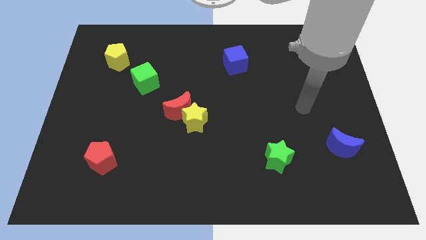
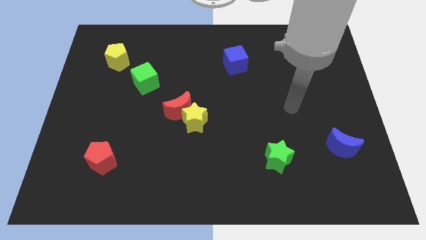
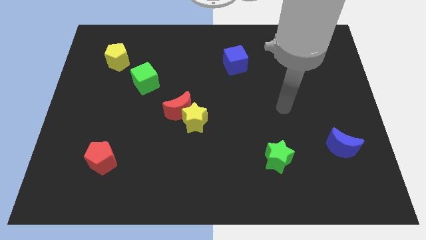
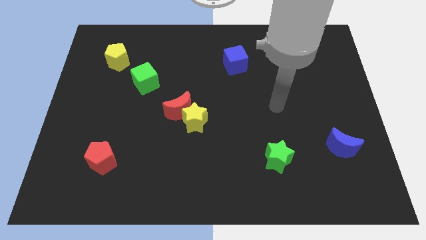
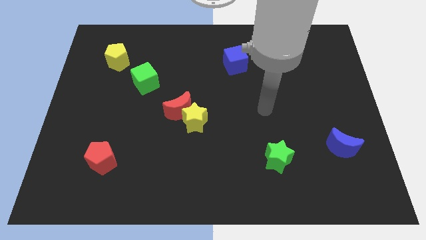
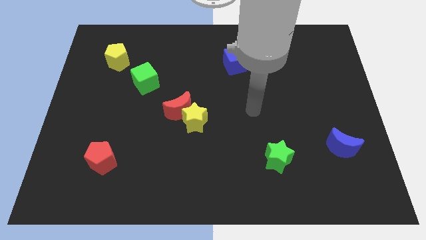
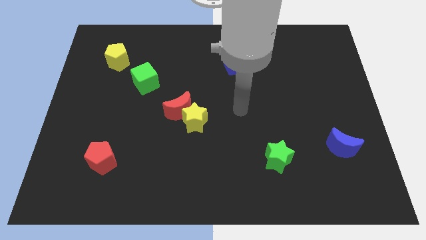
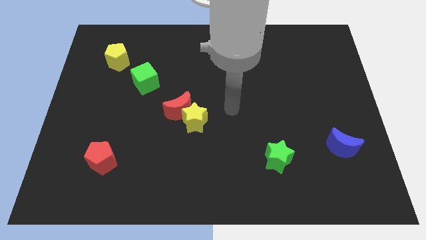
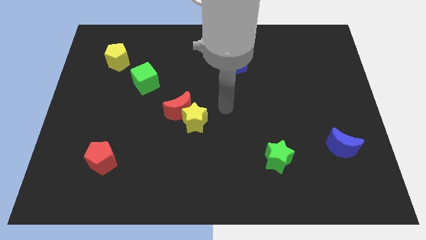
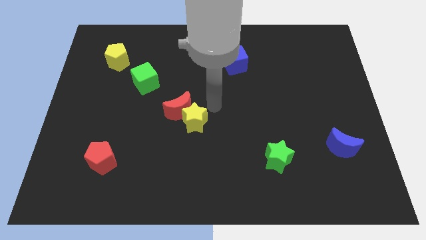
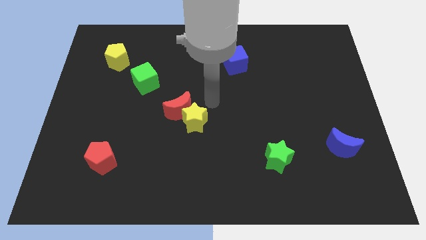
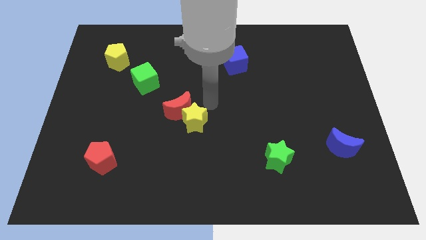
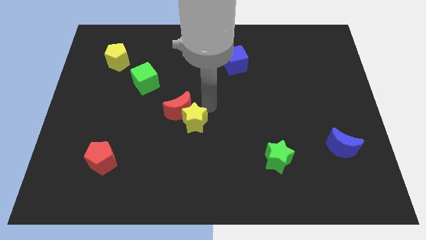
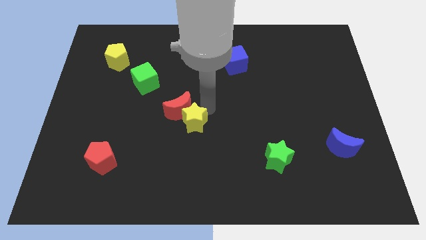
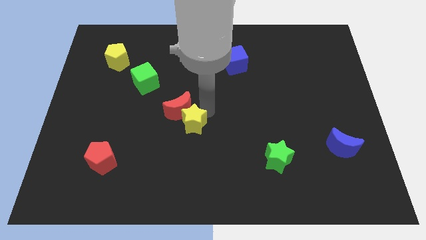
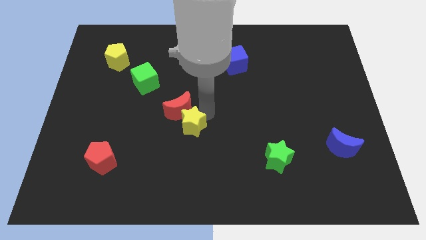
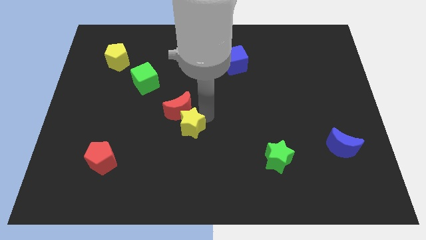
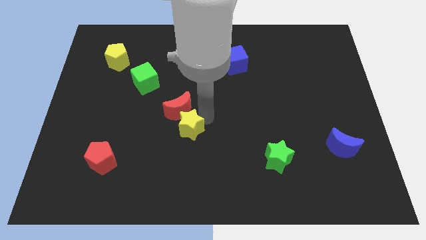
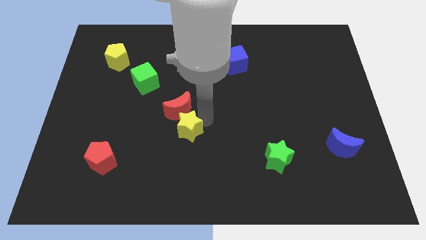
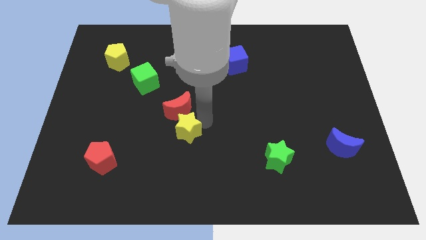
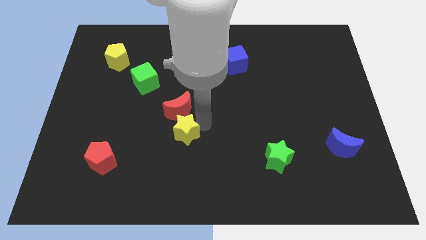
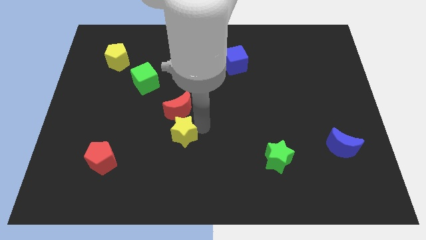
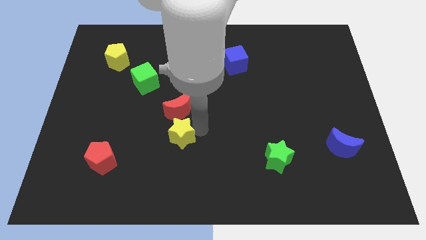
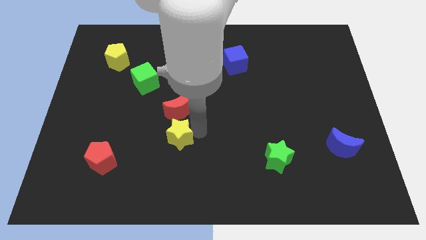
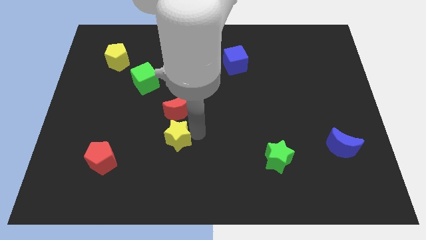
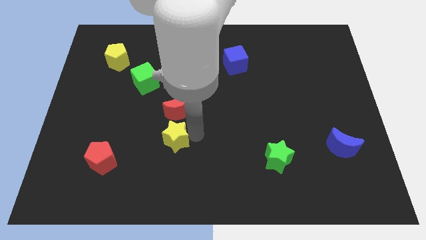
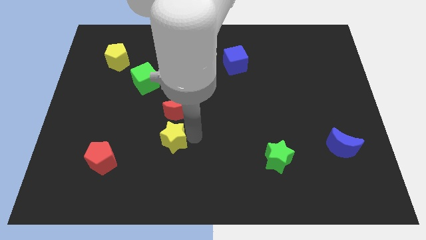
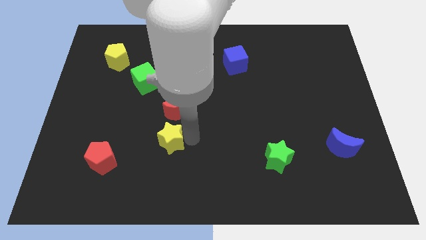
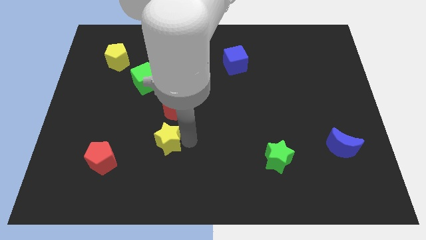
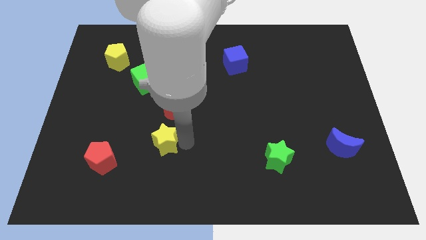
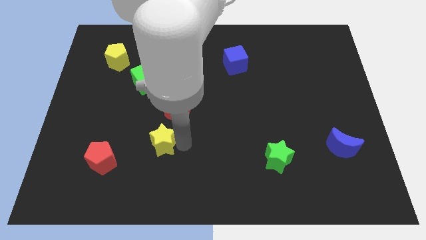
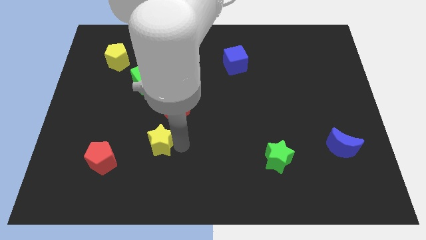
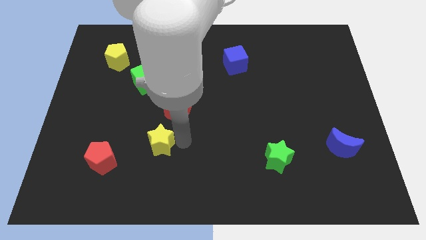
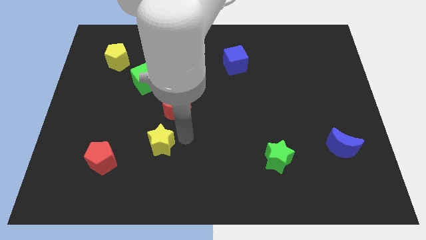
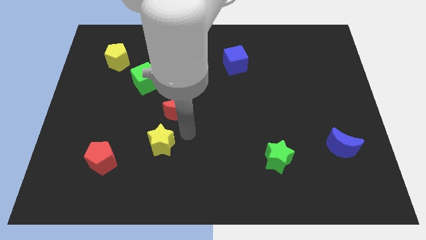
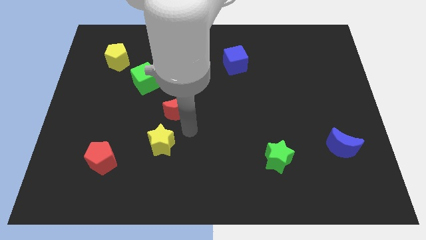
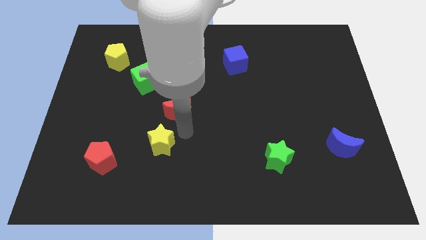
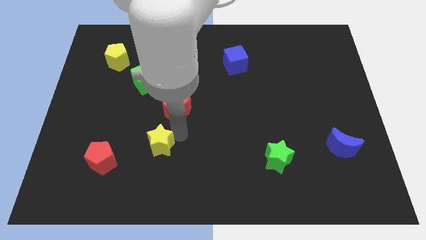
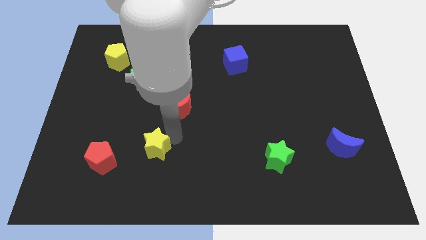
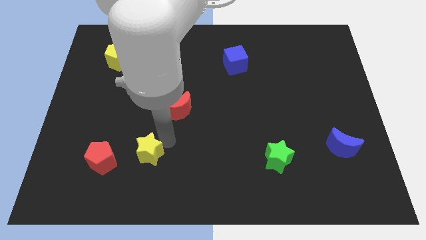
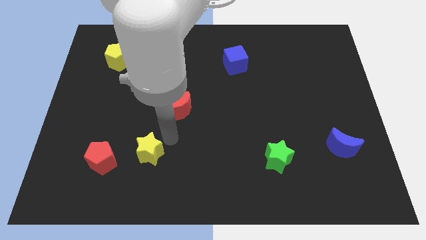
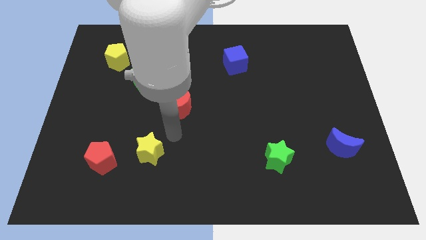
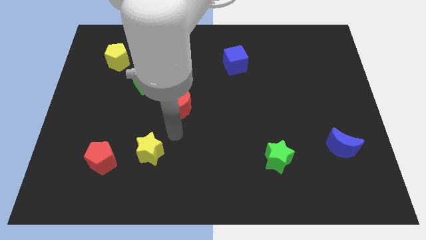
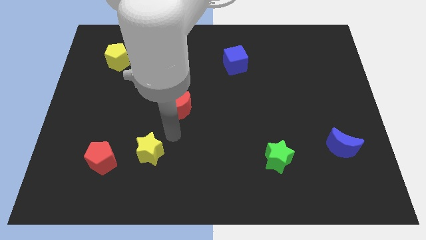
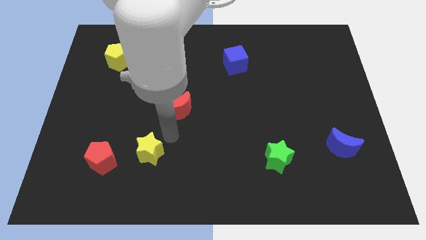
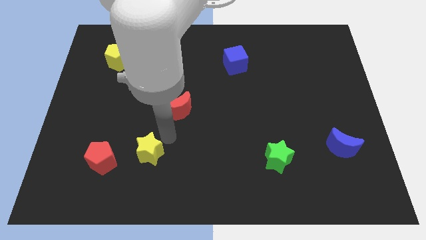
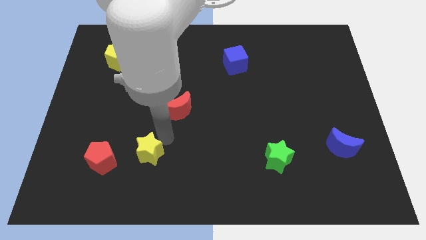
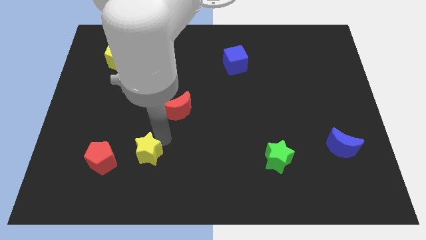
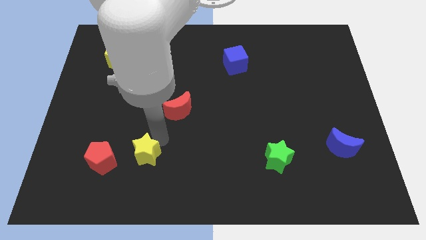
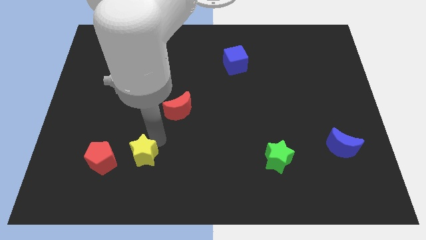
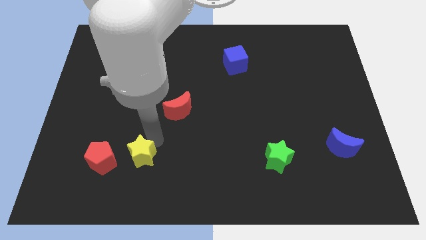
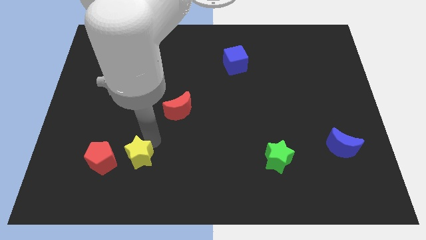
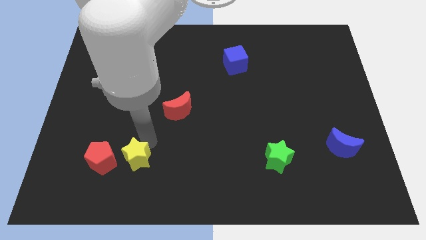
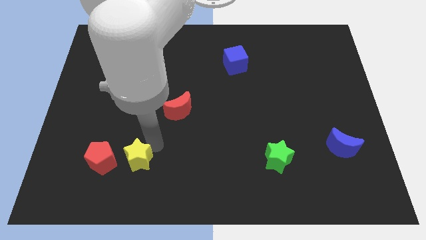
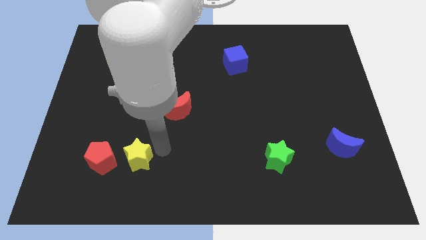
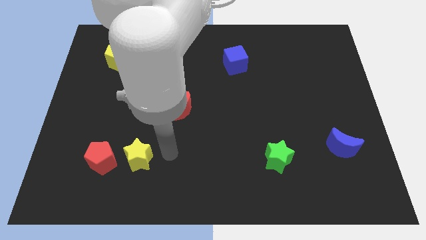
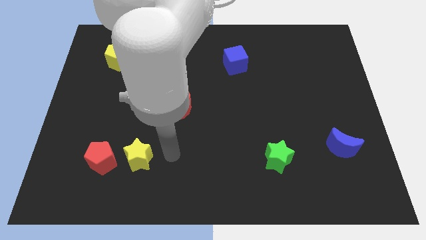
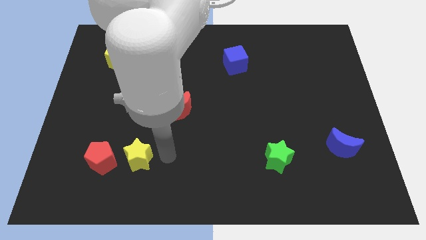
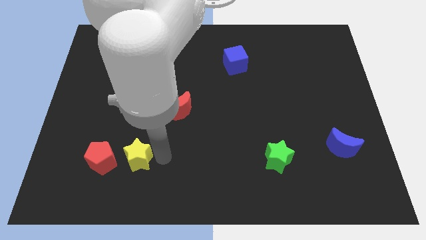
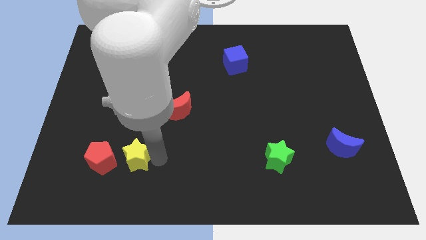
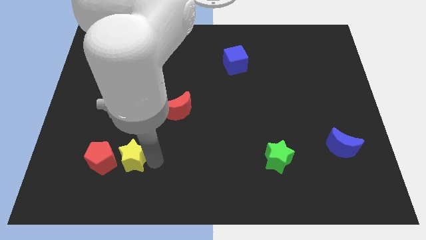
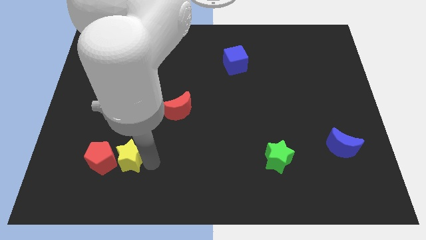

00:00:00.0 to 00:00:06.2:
put the yellow star next to the red pentagon
